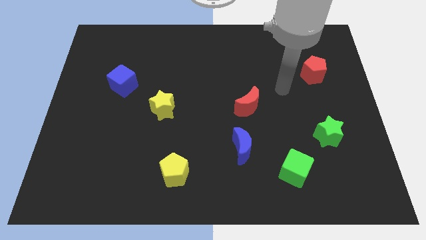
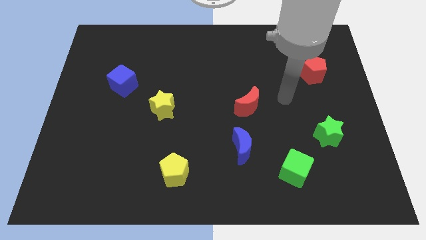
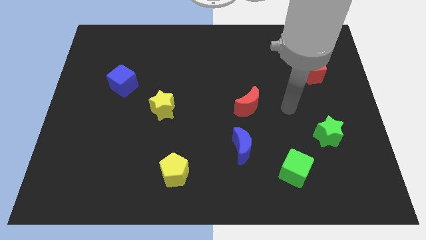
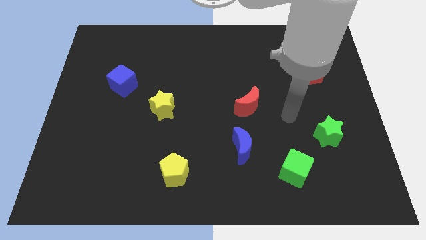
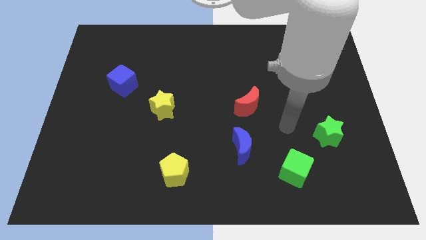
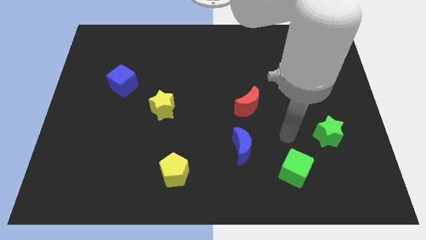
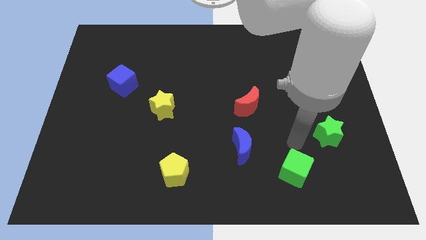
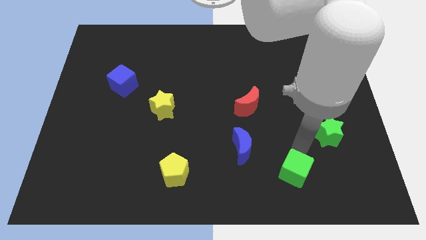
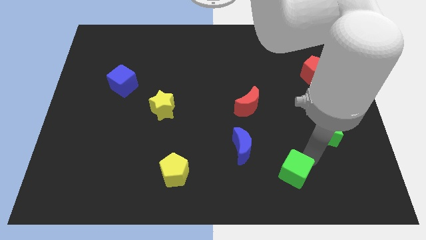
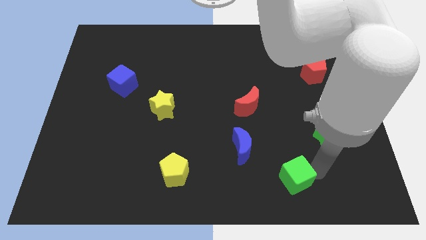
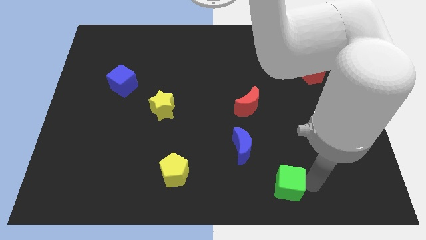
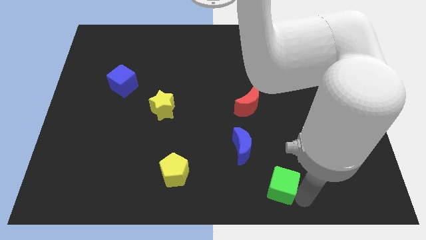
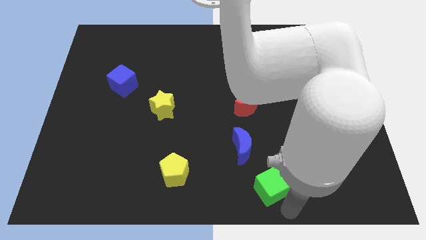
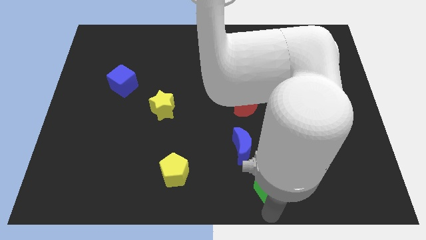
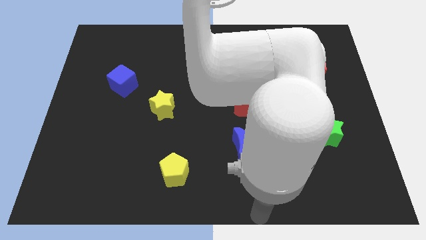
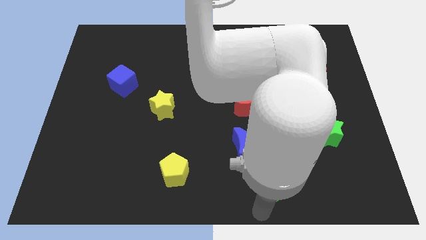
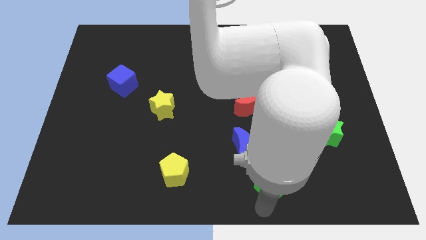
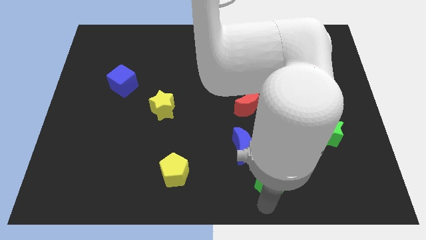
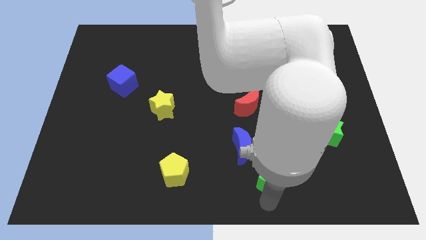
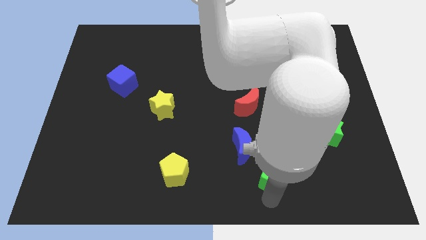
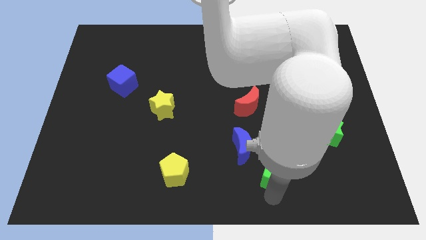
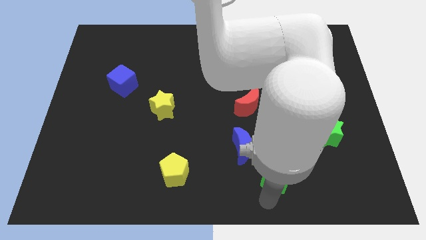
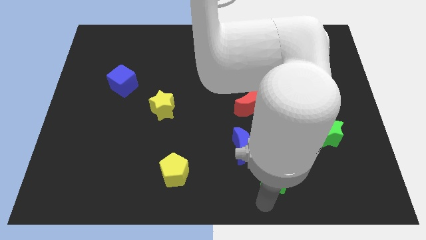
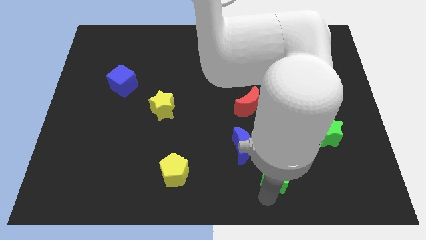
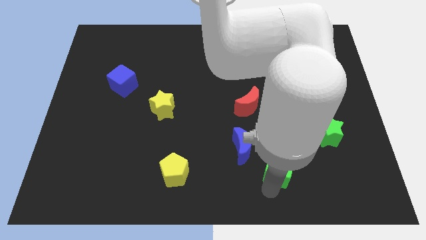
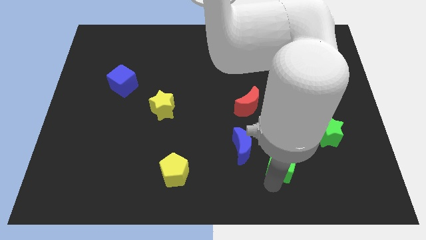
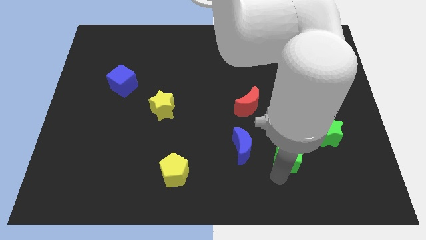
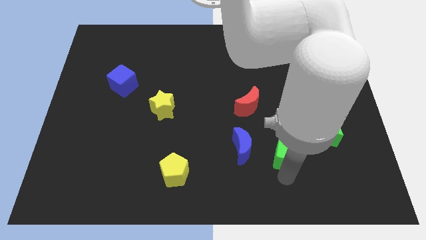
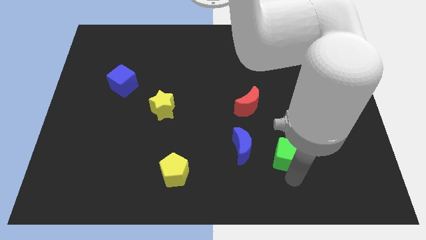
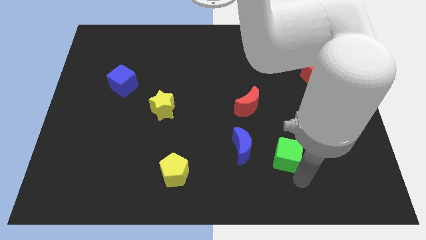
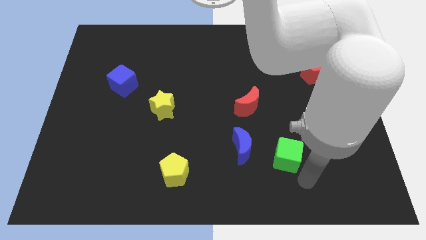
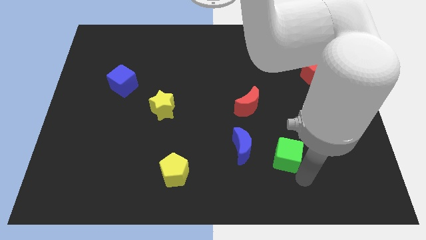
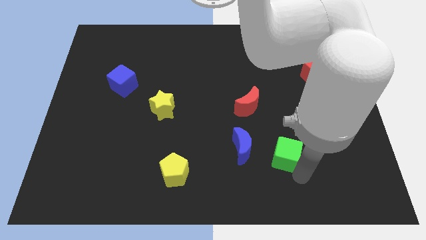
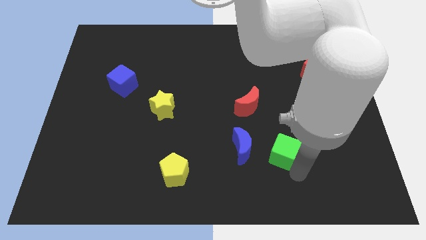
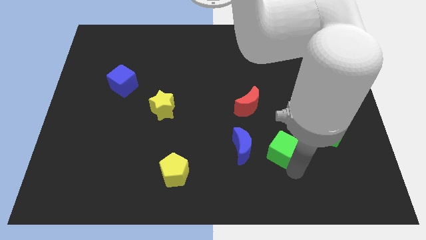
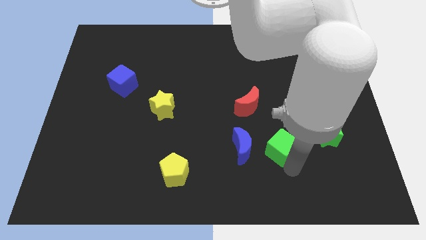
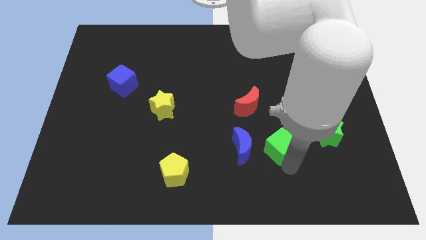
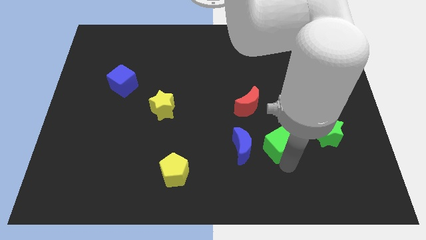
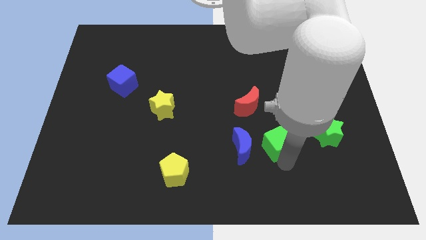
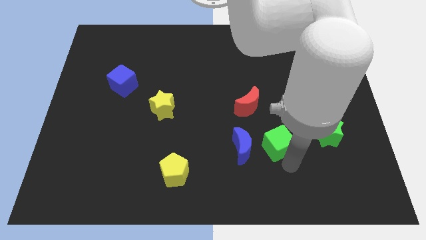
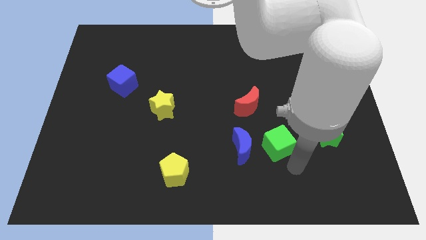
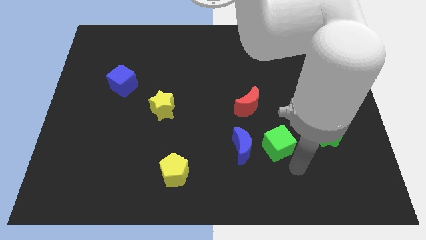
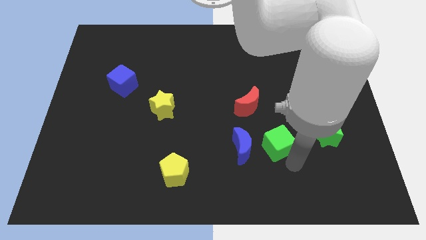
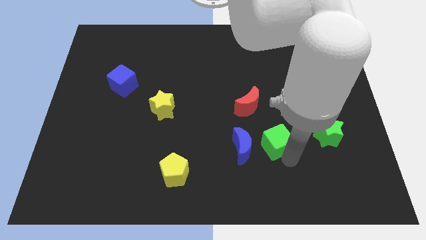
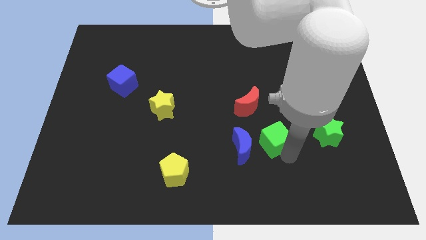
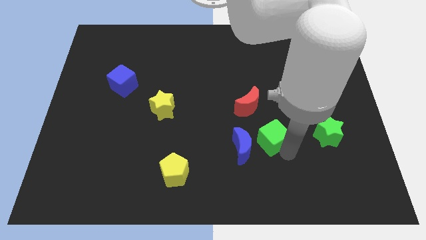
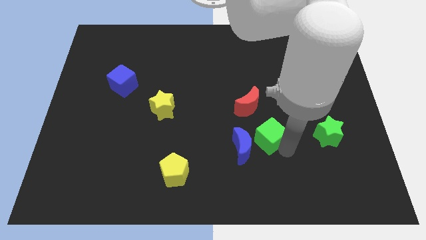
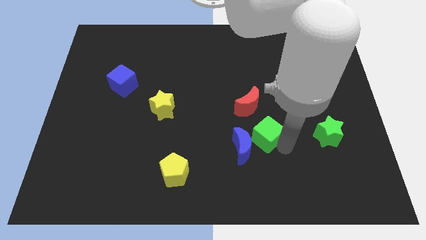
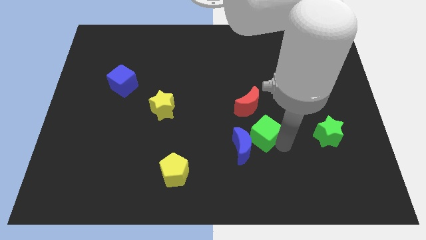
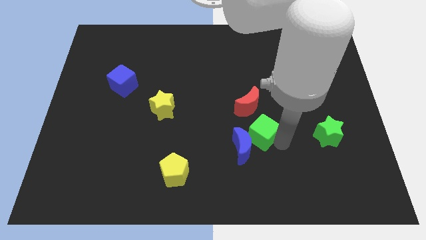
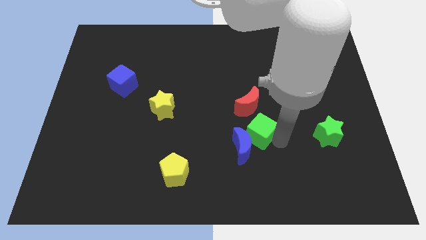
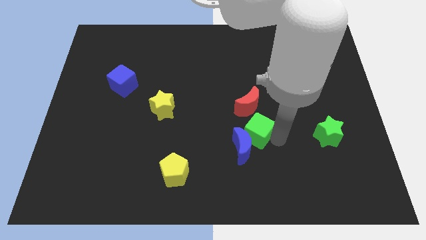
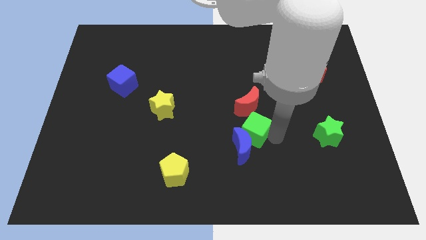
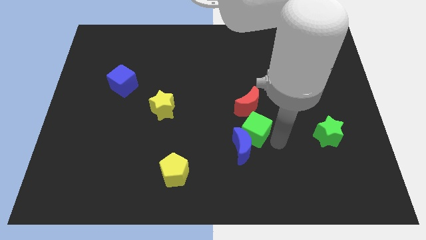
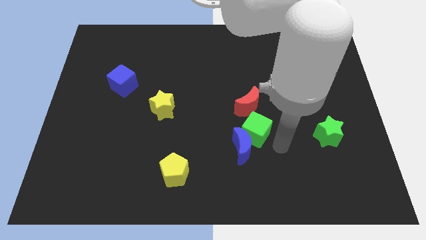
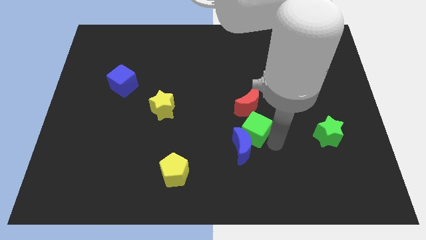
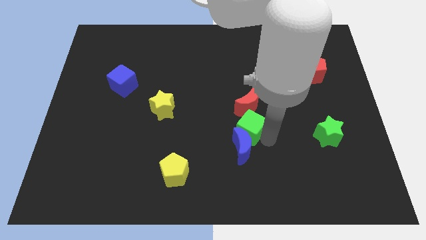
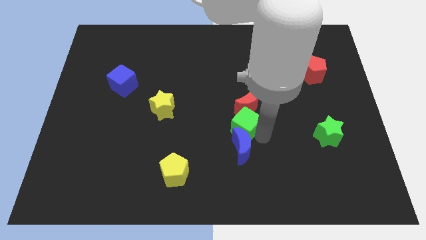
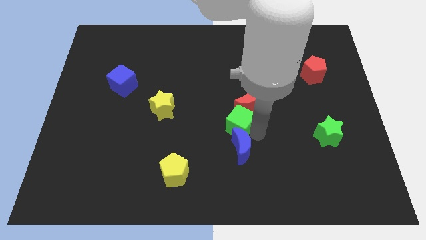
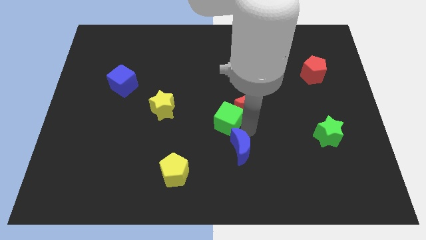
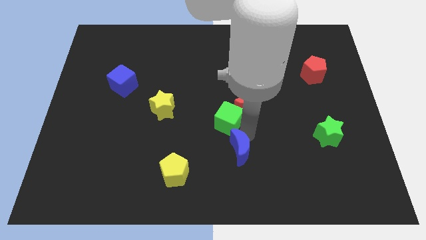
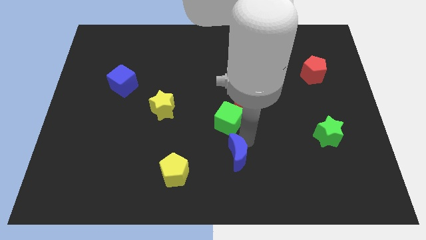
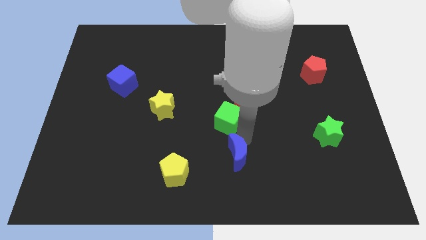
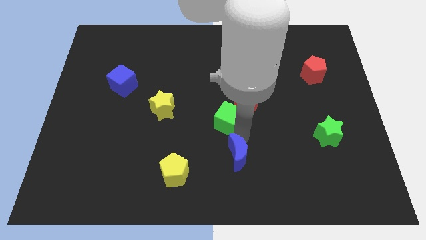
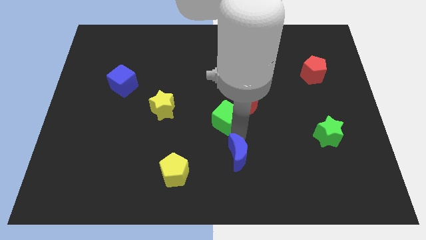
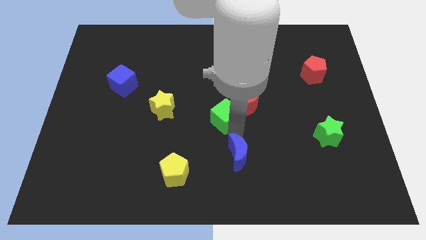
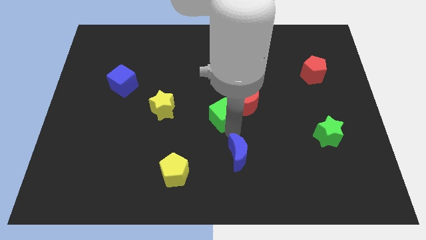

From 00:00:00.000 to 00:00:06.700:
slide the green cube diagonally upwards and to the left

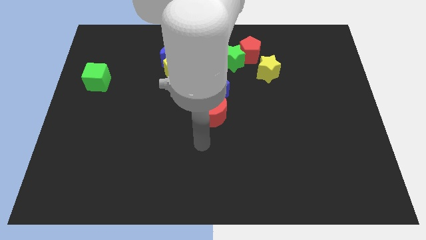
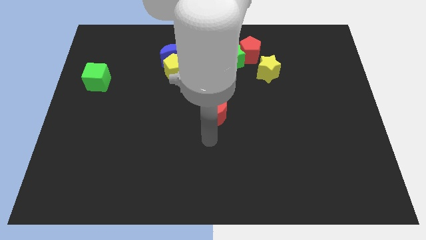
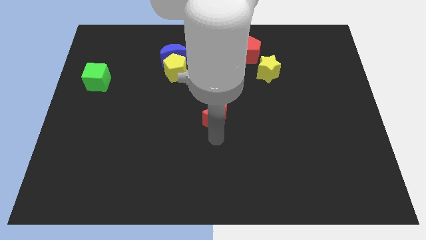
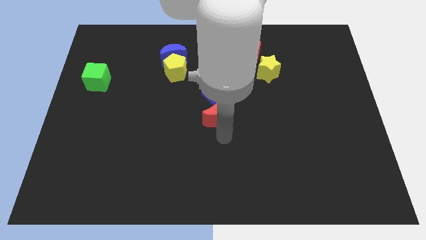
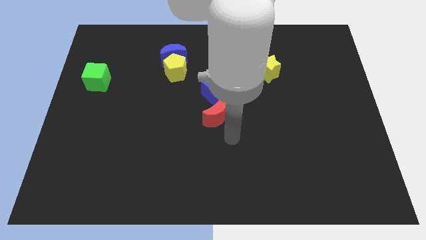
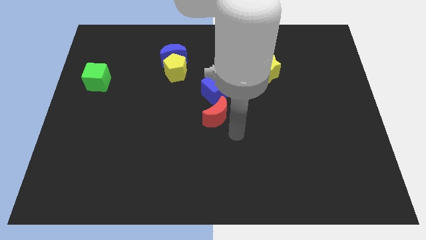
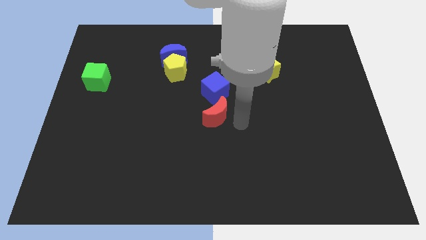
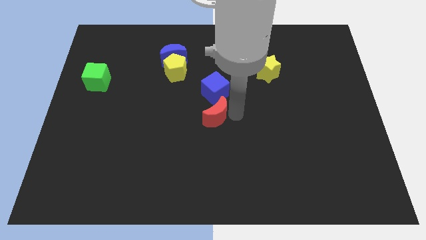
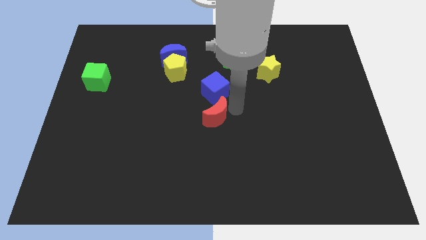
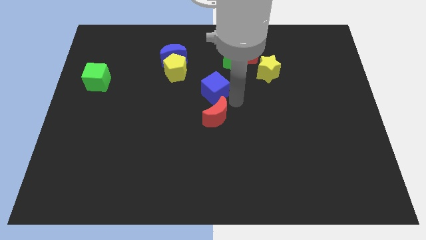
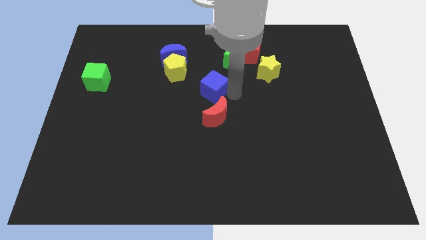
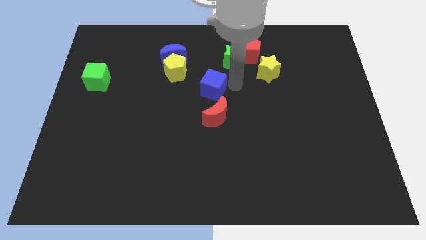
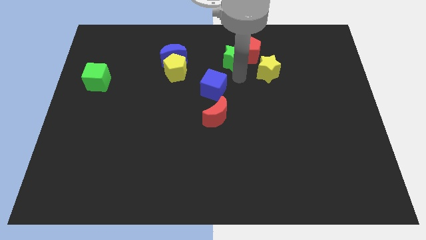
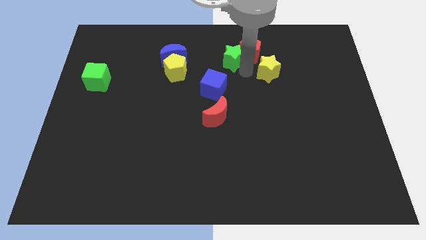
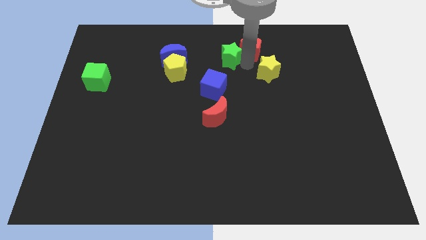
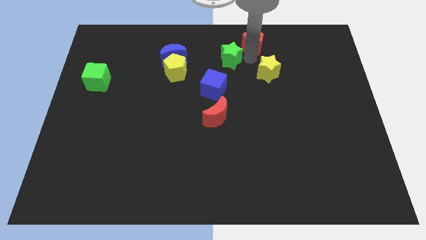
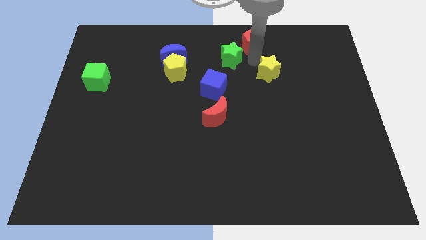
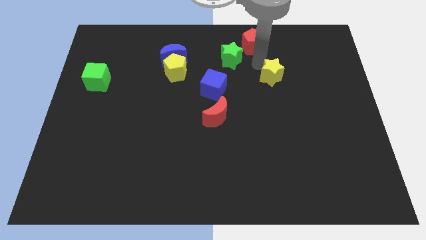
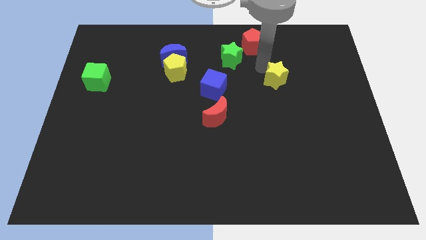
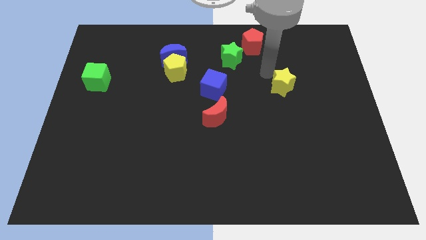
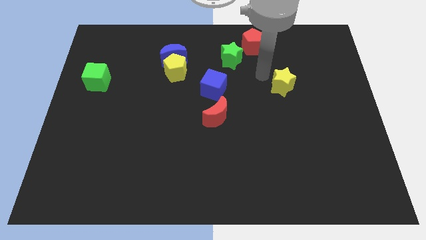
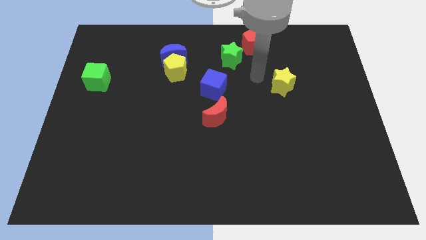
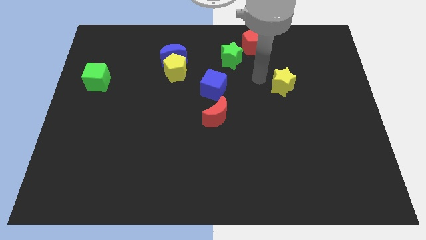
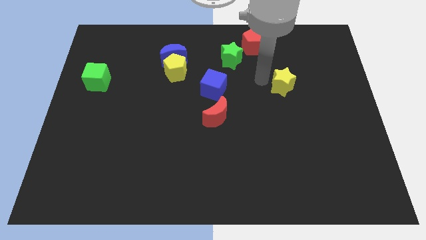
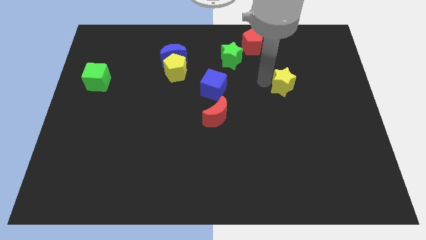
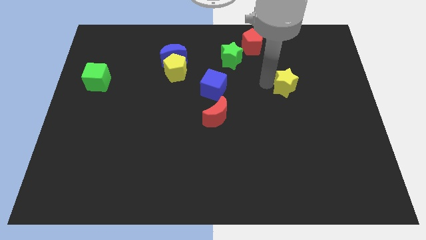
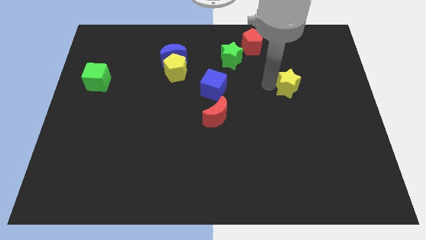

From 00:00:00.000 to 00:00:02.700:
push the yellow star somewhat downwards and right
